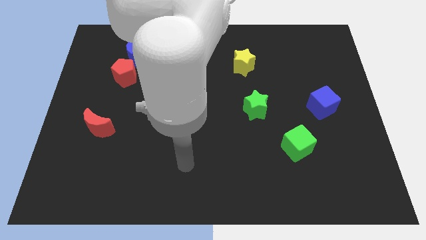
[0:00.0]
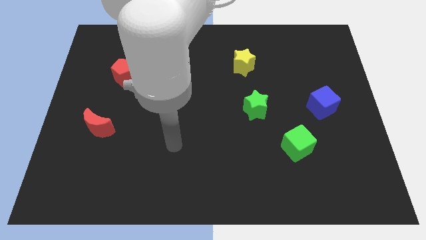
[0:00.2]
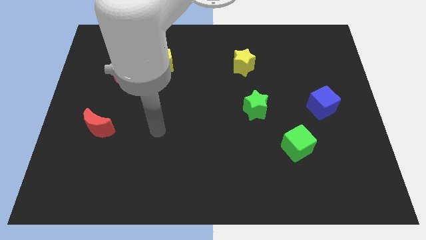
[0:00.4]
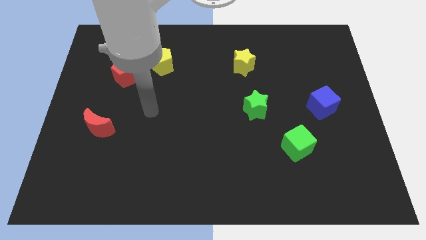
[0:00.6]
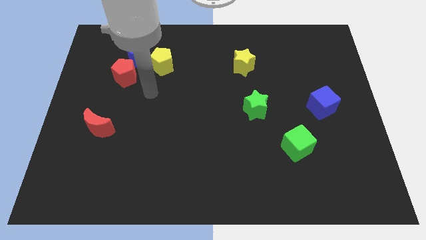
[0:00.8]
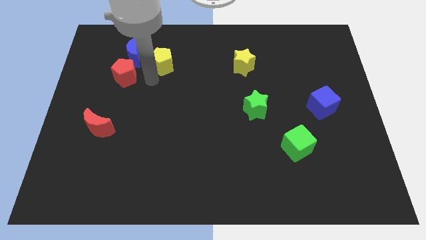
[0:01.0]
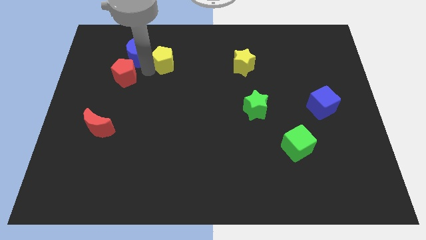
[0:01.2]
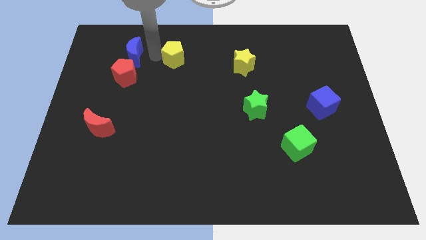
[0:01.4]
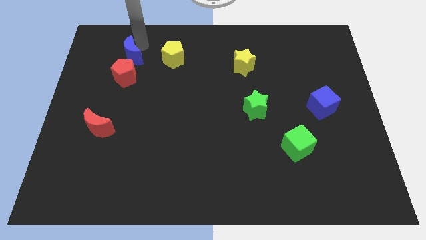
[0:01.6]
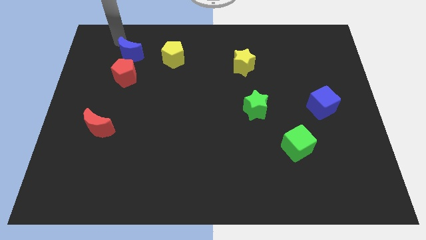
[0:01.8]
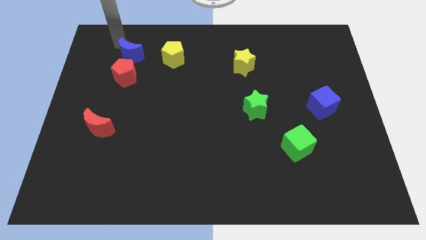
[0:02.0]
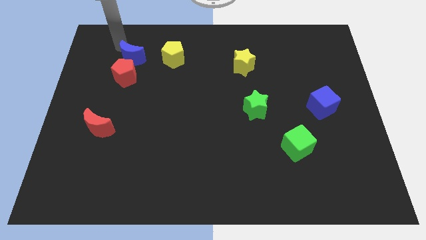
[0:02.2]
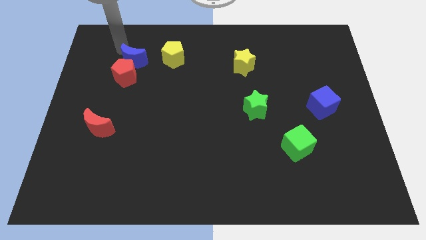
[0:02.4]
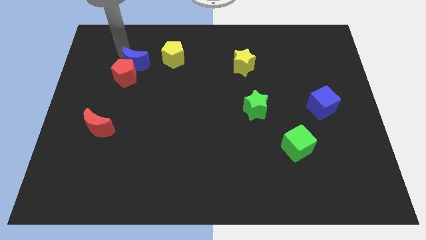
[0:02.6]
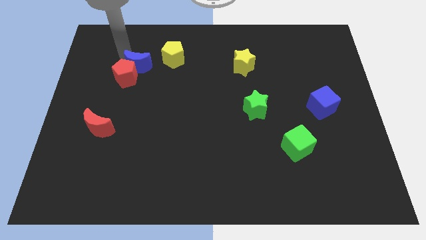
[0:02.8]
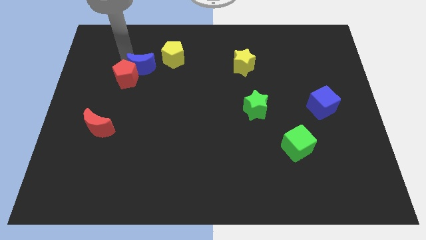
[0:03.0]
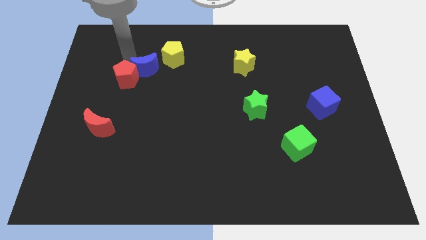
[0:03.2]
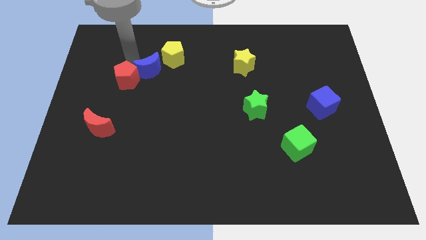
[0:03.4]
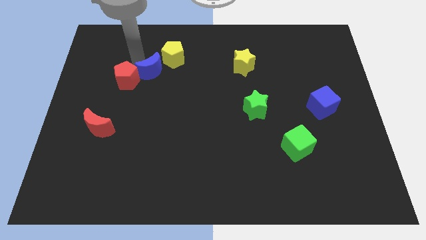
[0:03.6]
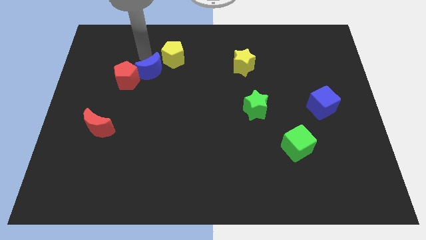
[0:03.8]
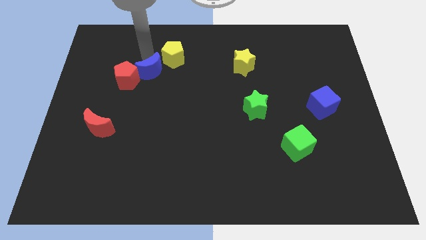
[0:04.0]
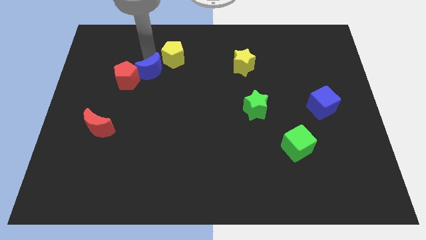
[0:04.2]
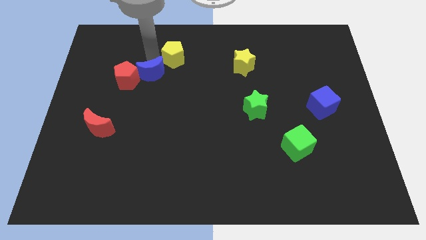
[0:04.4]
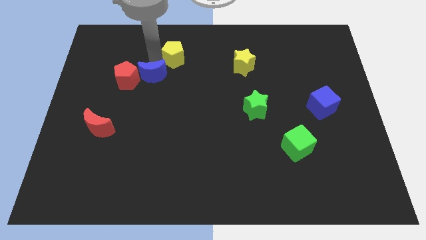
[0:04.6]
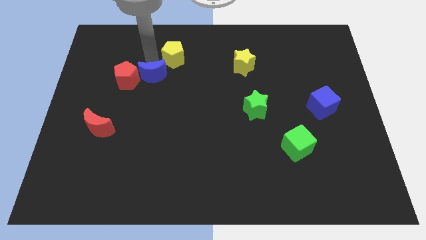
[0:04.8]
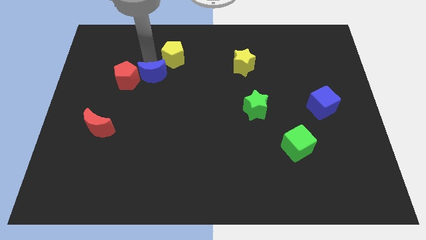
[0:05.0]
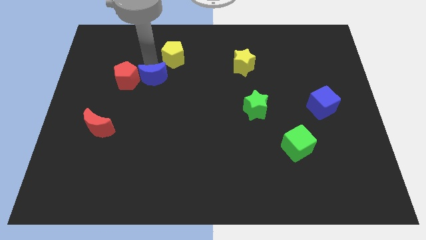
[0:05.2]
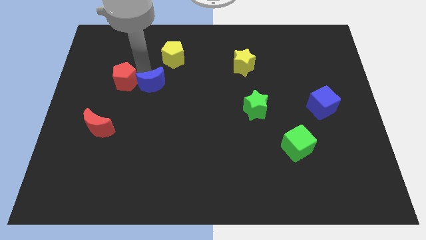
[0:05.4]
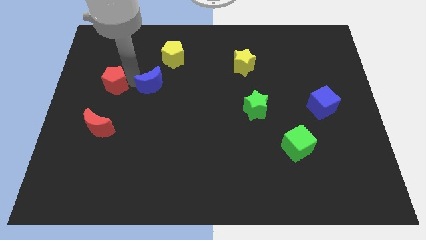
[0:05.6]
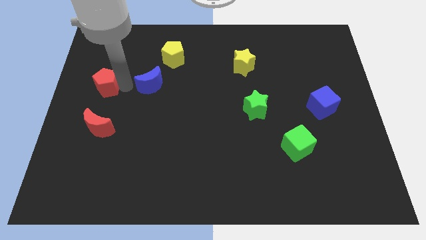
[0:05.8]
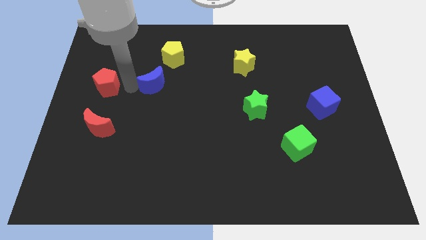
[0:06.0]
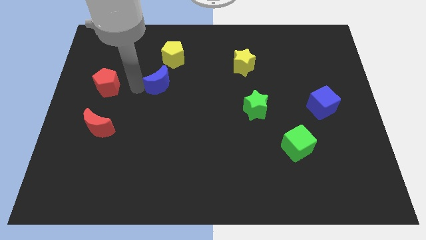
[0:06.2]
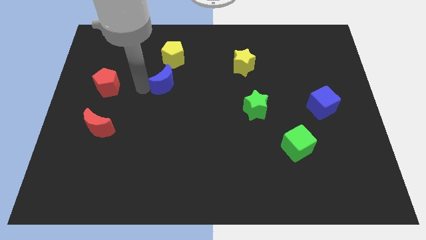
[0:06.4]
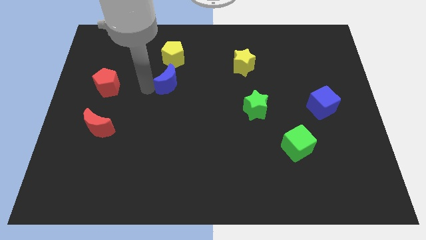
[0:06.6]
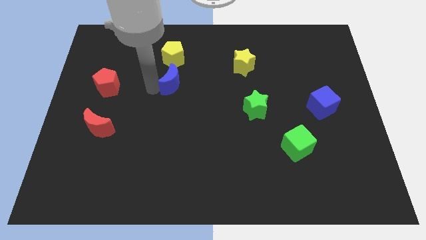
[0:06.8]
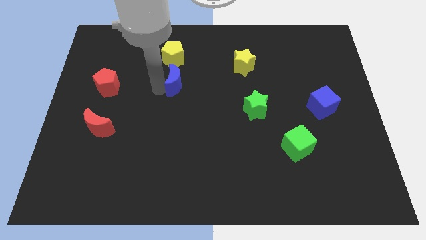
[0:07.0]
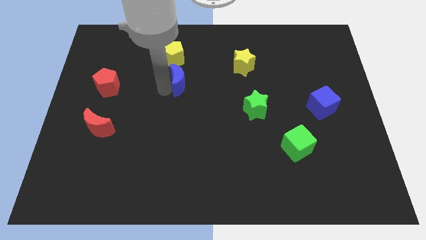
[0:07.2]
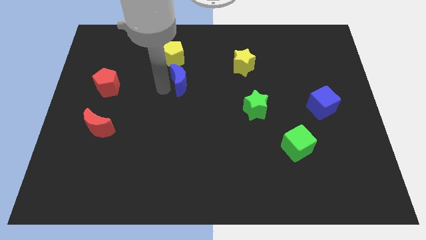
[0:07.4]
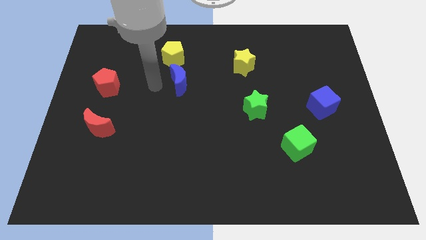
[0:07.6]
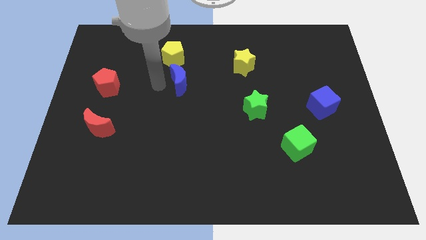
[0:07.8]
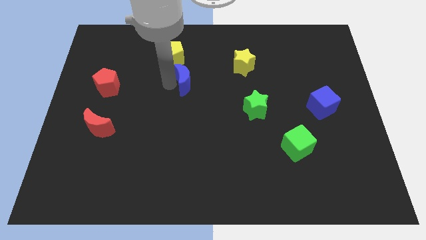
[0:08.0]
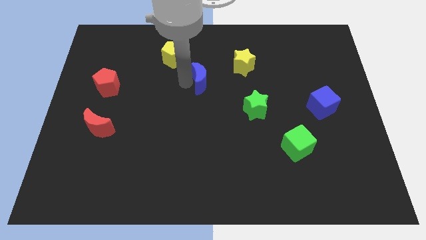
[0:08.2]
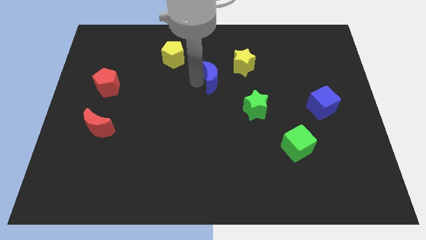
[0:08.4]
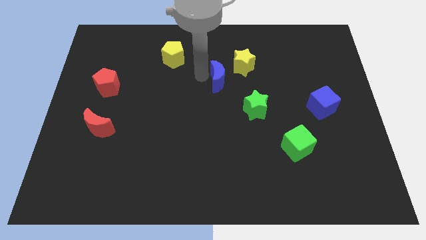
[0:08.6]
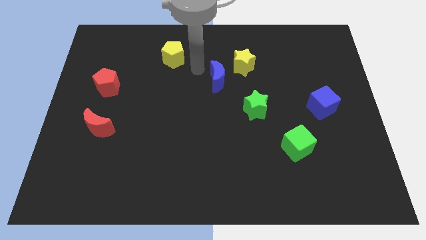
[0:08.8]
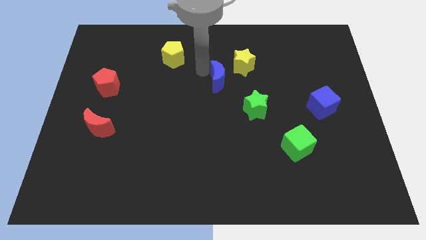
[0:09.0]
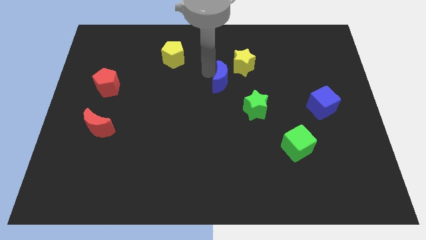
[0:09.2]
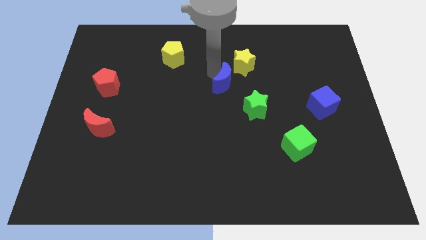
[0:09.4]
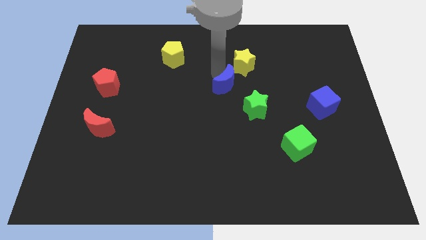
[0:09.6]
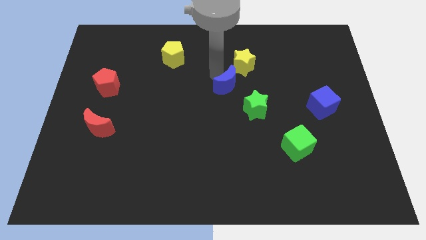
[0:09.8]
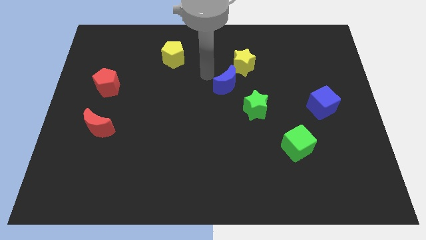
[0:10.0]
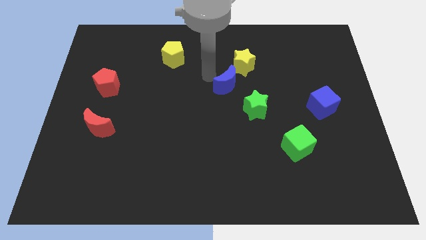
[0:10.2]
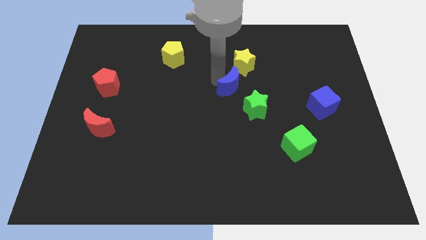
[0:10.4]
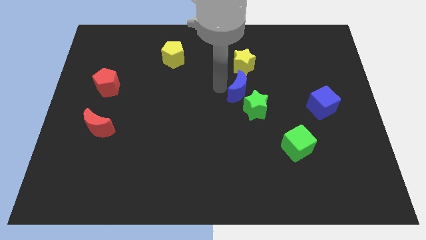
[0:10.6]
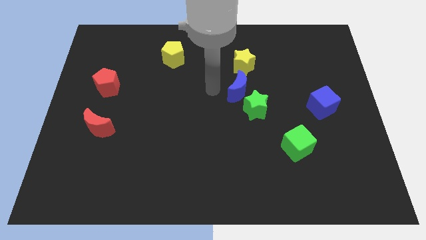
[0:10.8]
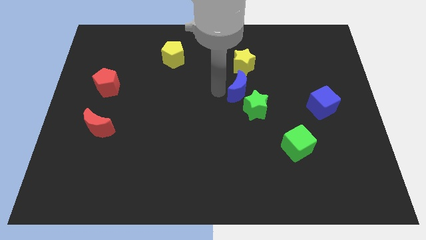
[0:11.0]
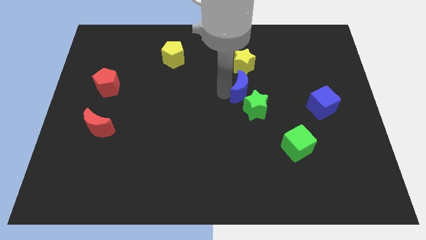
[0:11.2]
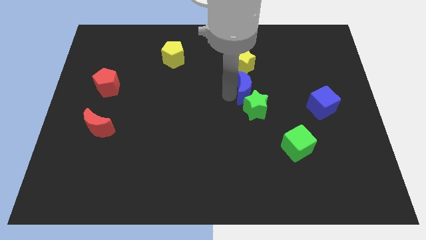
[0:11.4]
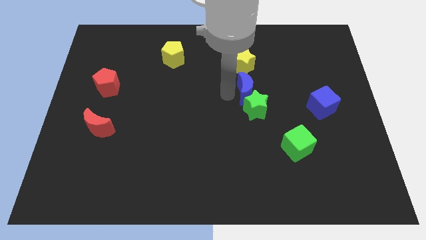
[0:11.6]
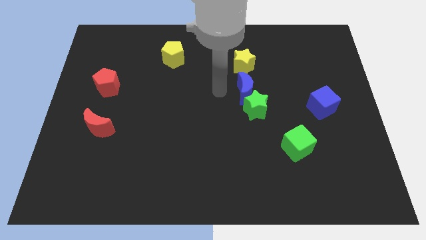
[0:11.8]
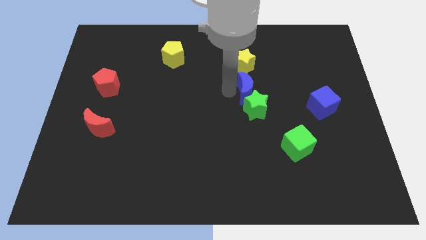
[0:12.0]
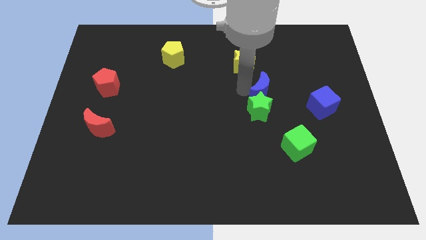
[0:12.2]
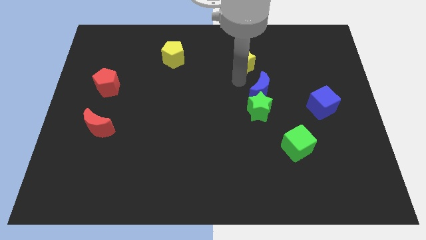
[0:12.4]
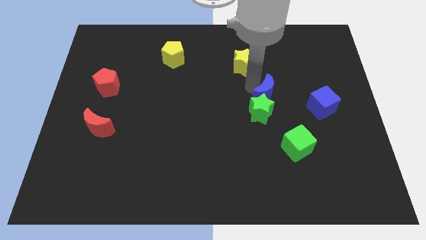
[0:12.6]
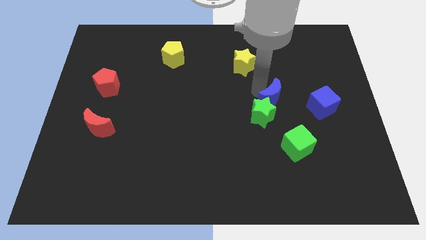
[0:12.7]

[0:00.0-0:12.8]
slide the blue moon above the green cube

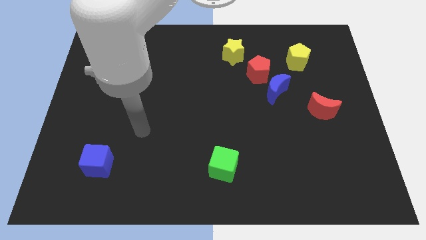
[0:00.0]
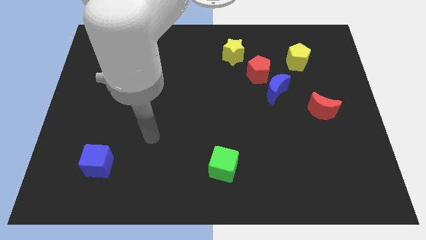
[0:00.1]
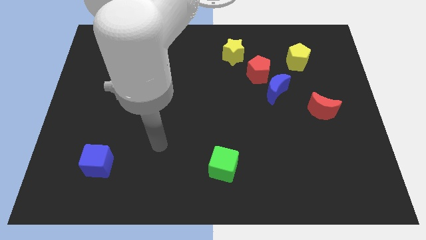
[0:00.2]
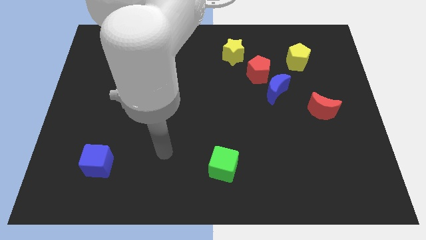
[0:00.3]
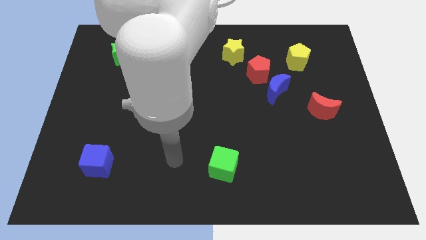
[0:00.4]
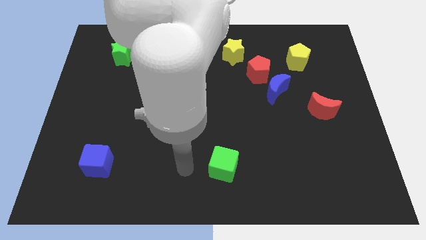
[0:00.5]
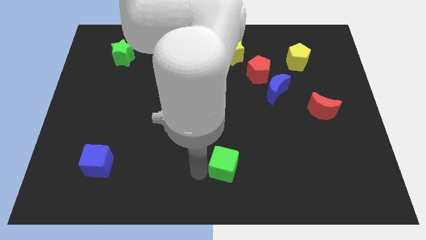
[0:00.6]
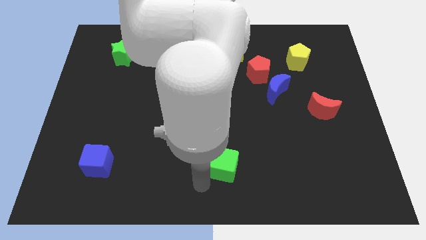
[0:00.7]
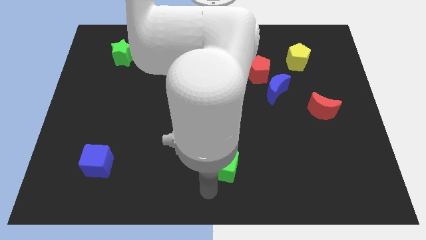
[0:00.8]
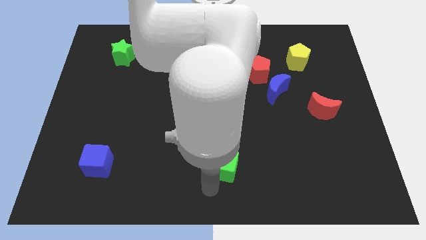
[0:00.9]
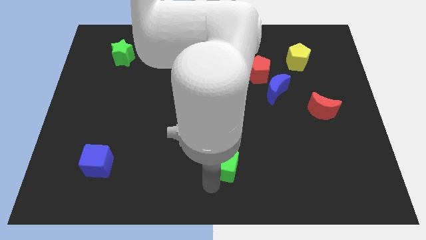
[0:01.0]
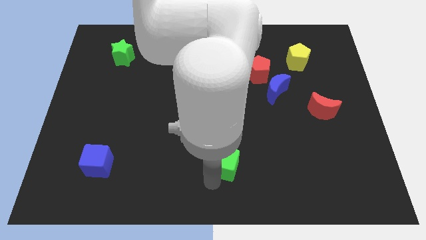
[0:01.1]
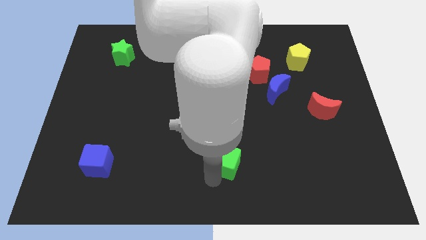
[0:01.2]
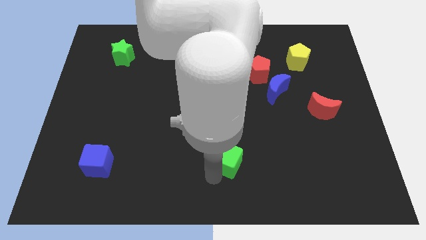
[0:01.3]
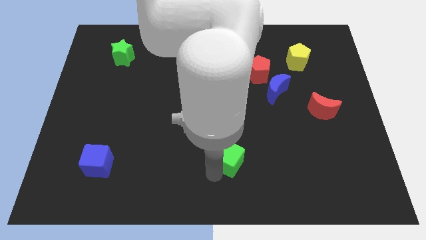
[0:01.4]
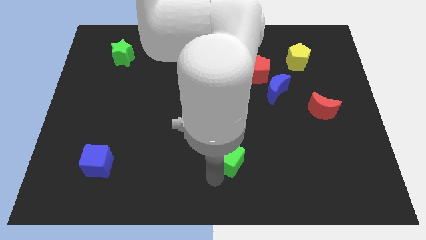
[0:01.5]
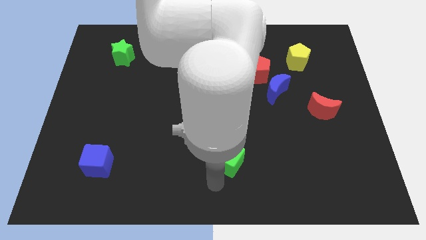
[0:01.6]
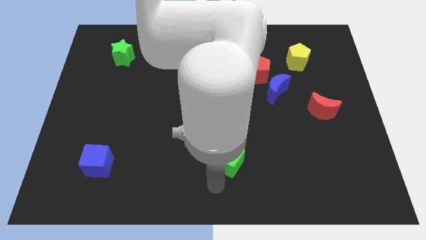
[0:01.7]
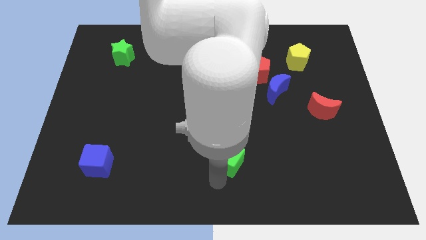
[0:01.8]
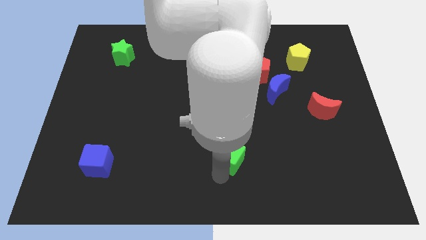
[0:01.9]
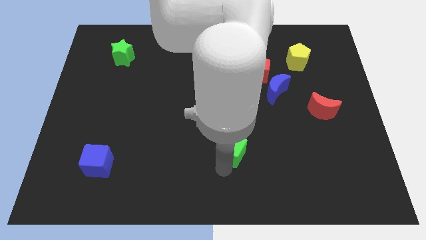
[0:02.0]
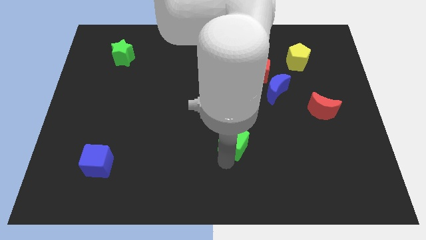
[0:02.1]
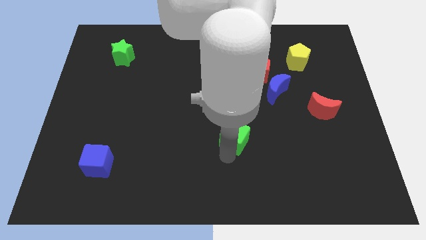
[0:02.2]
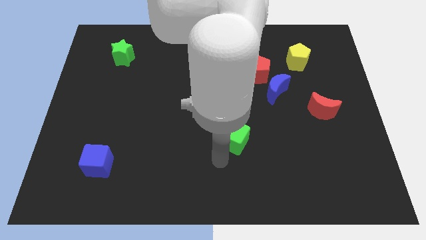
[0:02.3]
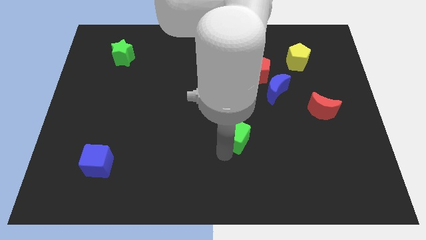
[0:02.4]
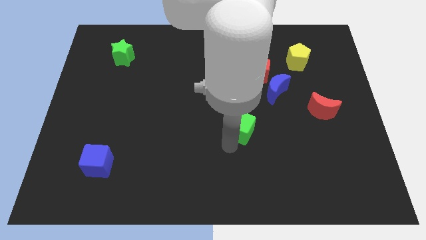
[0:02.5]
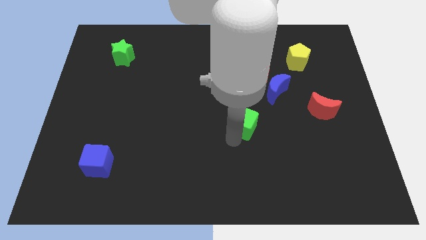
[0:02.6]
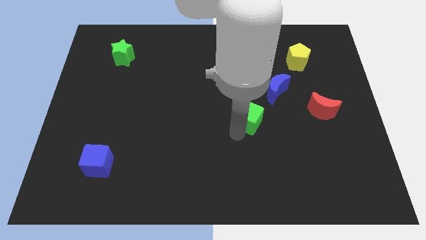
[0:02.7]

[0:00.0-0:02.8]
move the green cube diagonally down and to the left of the blue moon
